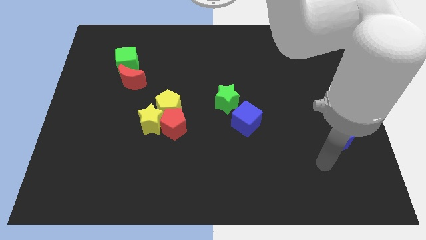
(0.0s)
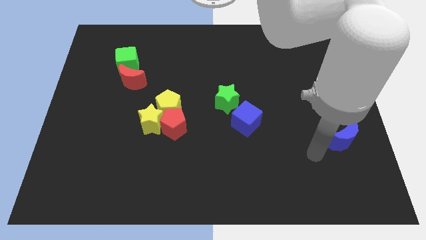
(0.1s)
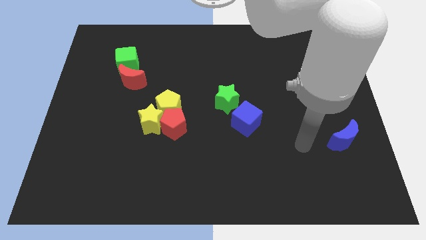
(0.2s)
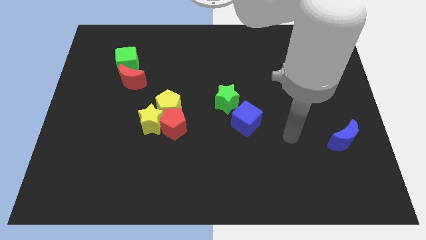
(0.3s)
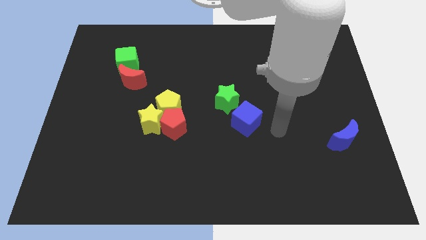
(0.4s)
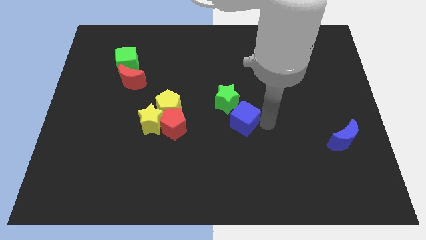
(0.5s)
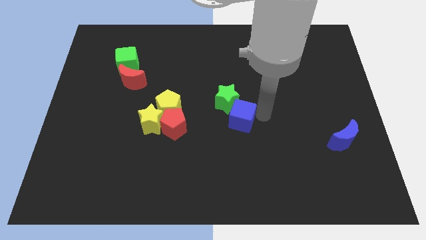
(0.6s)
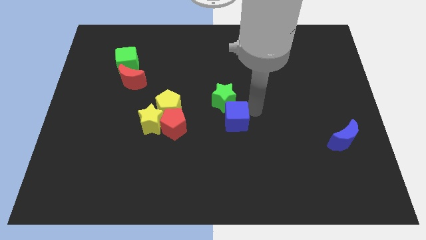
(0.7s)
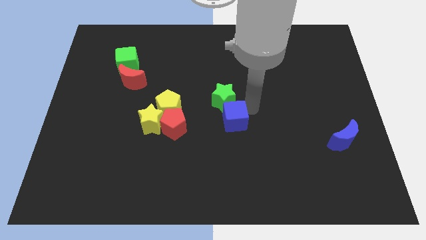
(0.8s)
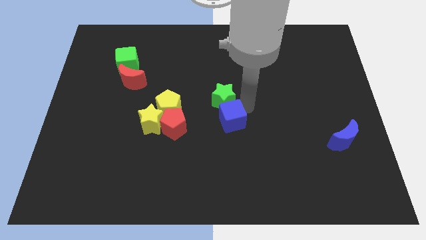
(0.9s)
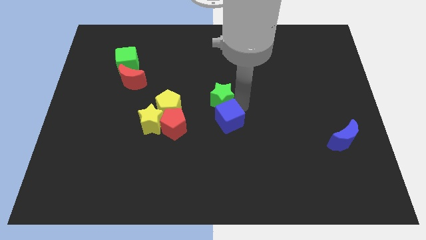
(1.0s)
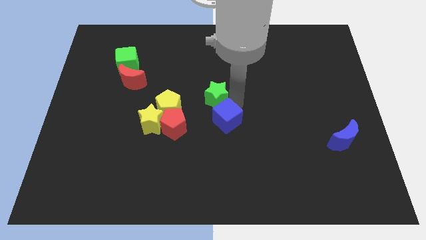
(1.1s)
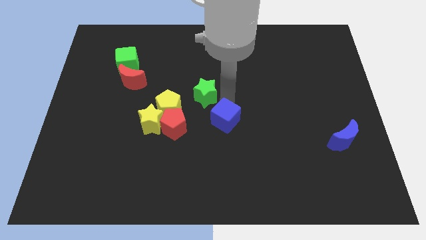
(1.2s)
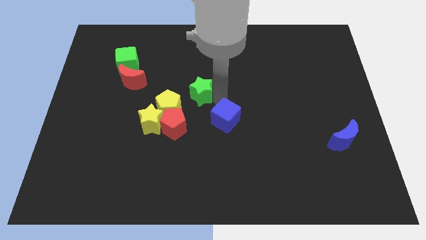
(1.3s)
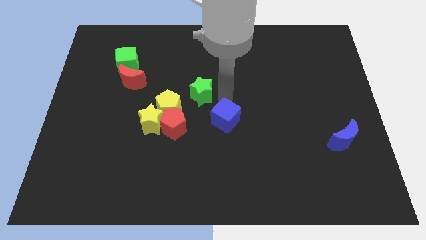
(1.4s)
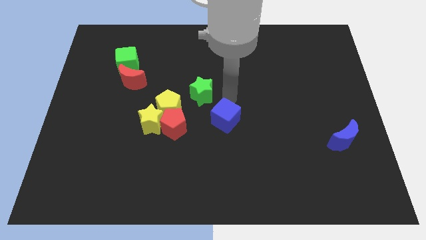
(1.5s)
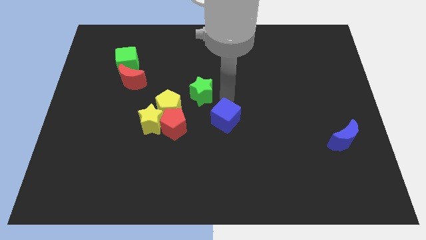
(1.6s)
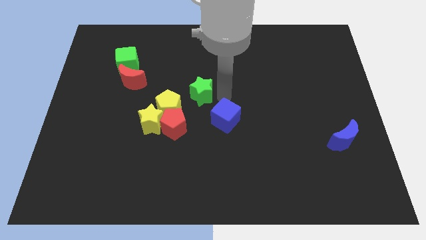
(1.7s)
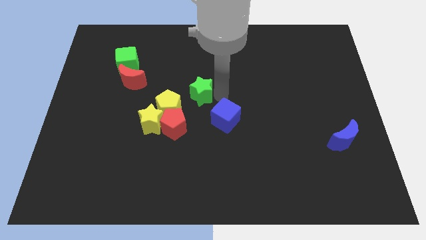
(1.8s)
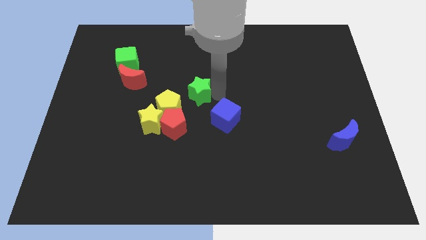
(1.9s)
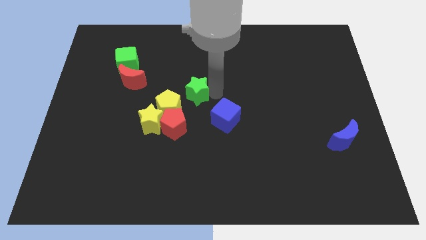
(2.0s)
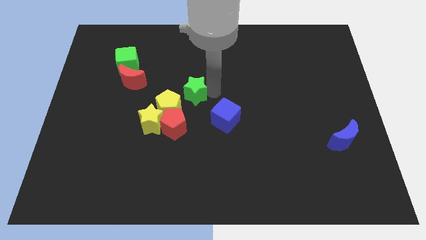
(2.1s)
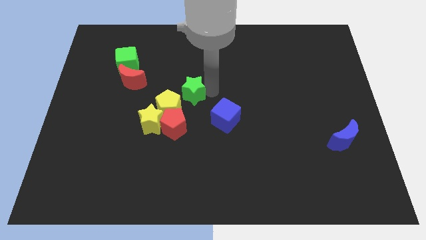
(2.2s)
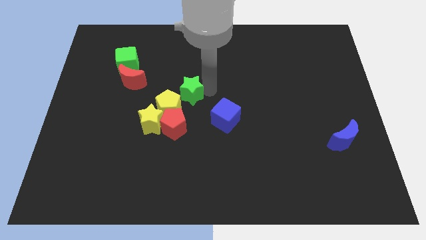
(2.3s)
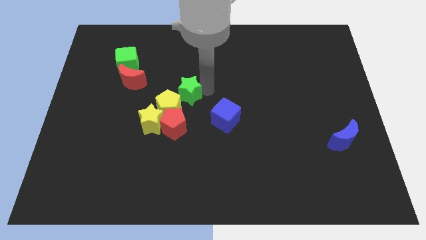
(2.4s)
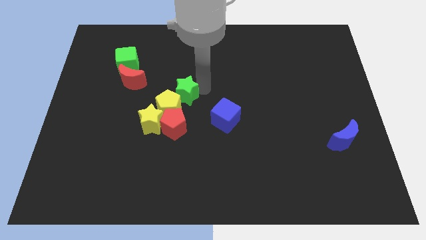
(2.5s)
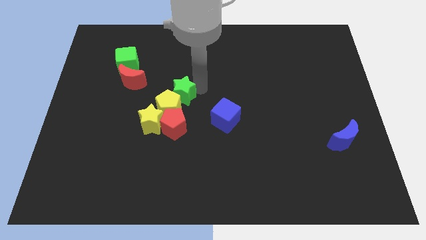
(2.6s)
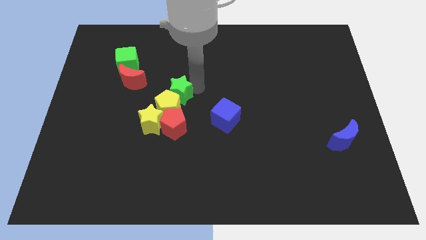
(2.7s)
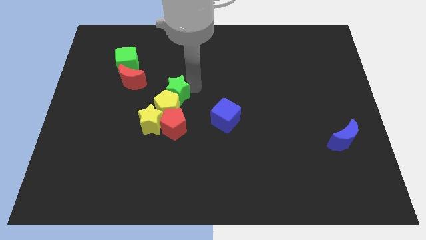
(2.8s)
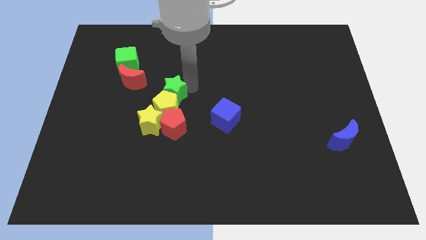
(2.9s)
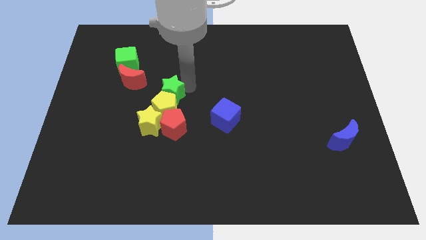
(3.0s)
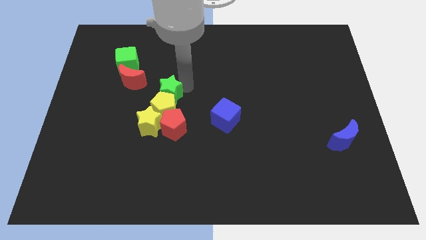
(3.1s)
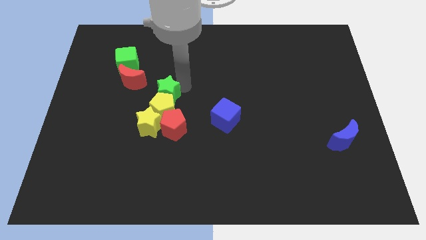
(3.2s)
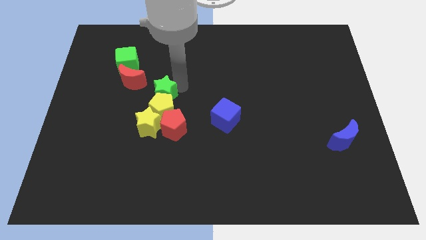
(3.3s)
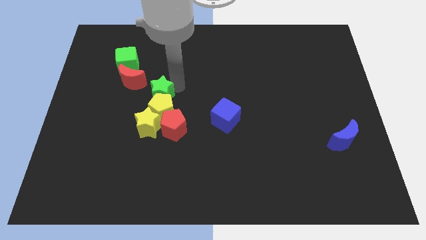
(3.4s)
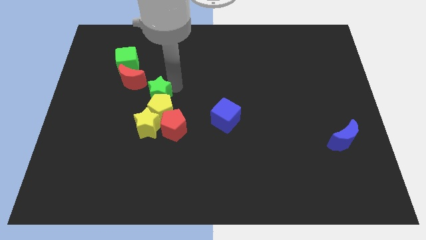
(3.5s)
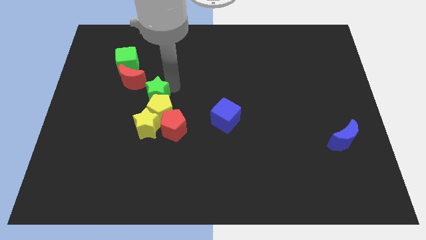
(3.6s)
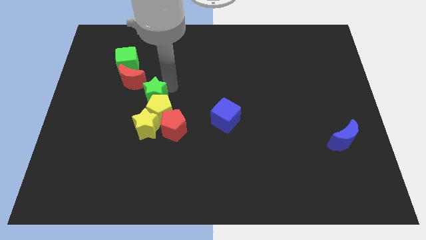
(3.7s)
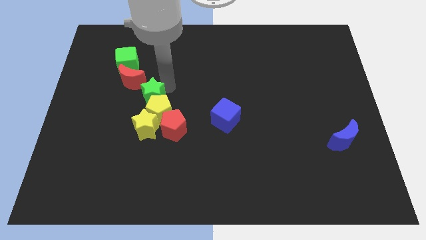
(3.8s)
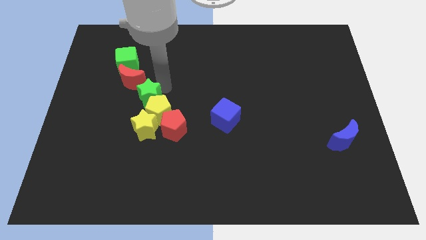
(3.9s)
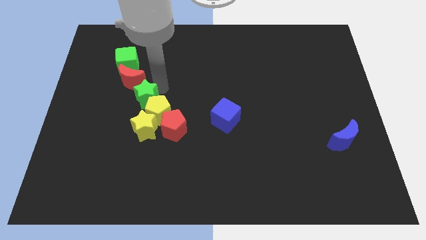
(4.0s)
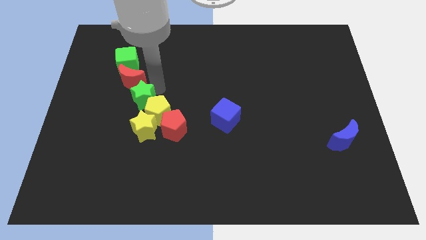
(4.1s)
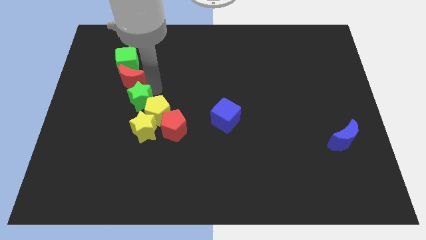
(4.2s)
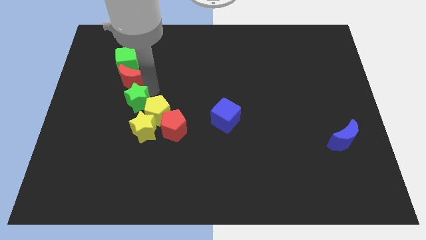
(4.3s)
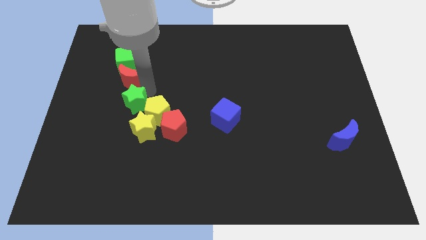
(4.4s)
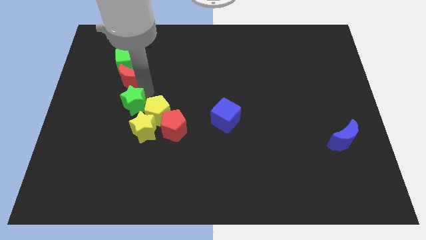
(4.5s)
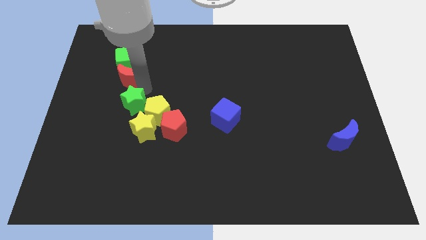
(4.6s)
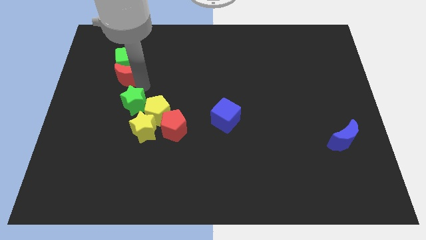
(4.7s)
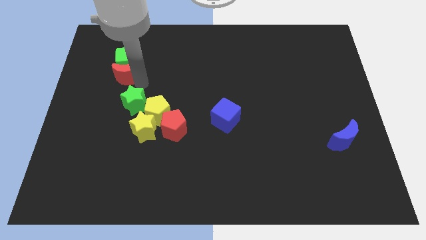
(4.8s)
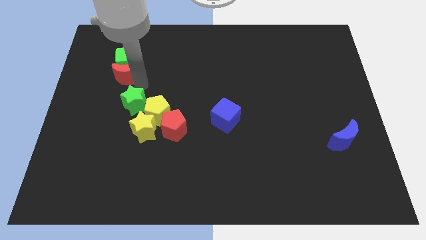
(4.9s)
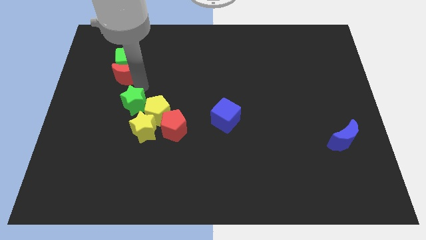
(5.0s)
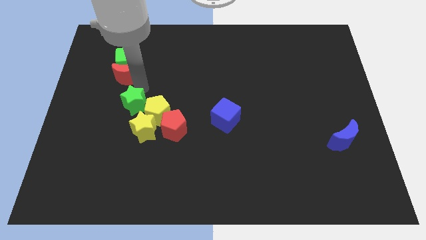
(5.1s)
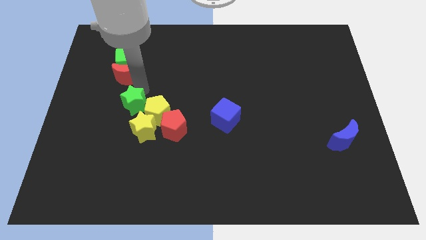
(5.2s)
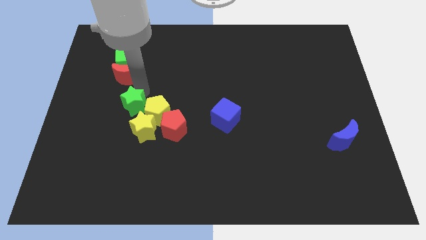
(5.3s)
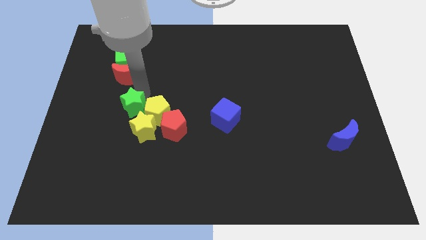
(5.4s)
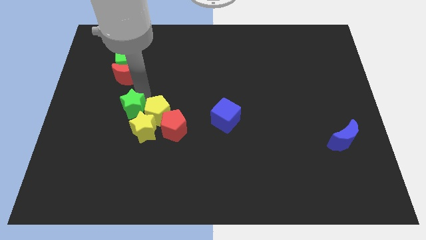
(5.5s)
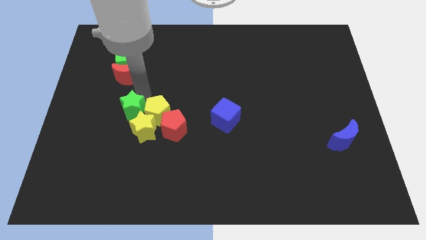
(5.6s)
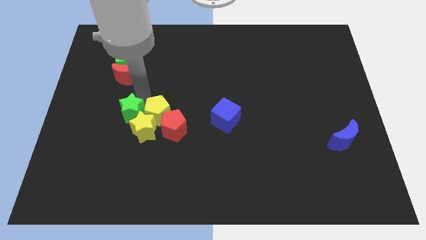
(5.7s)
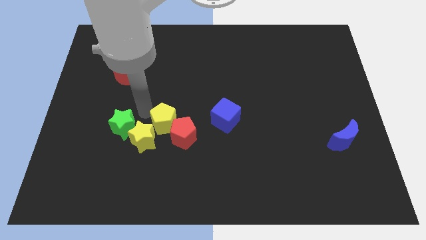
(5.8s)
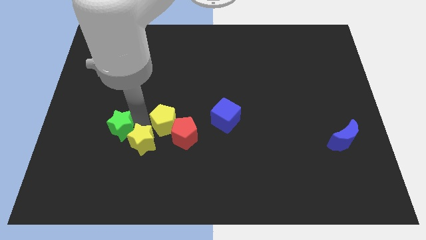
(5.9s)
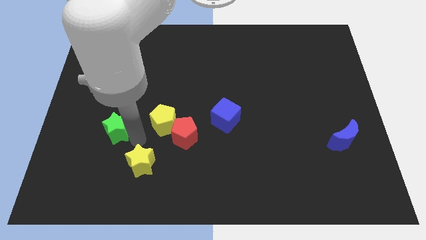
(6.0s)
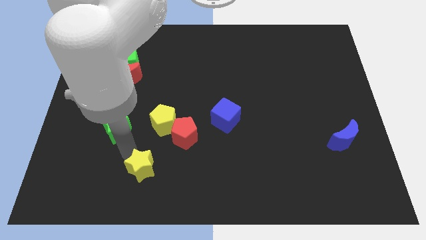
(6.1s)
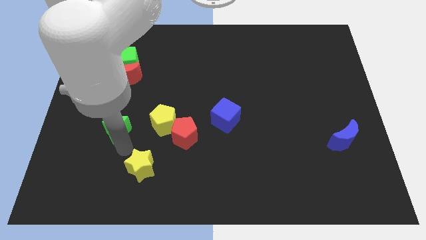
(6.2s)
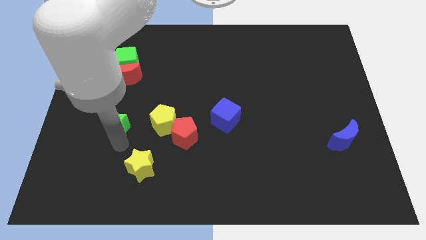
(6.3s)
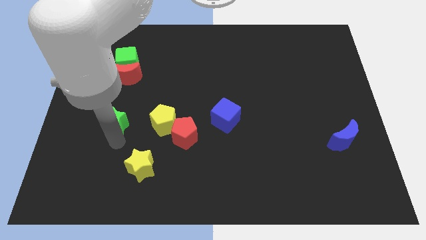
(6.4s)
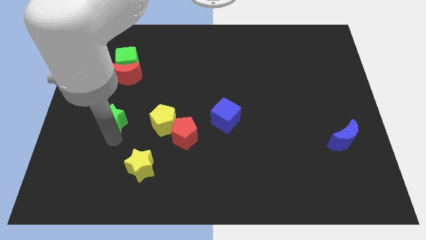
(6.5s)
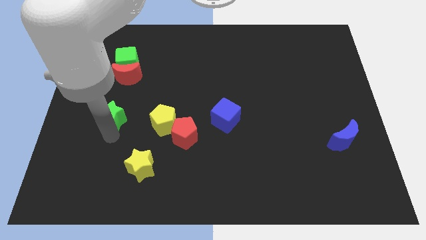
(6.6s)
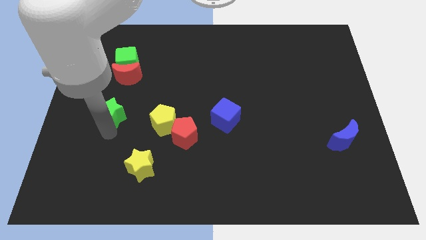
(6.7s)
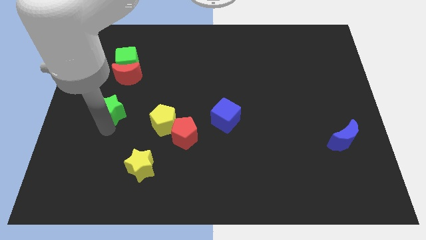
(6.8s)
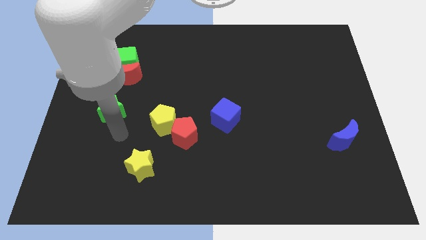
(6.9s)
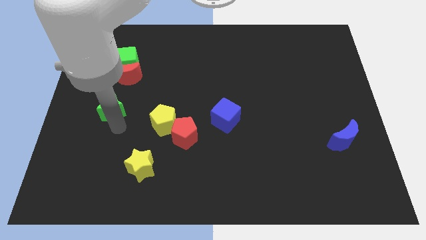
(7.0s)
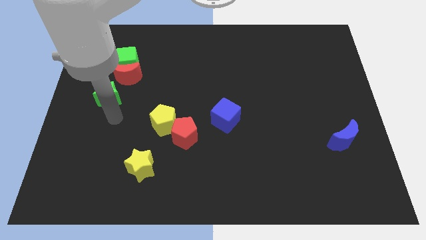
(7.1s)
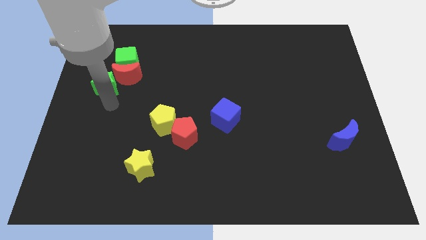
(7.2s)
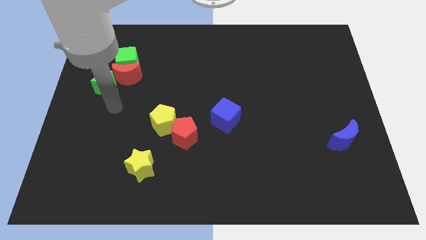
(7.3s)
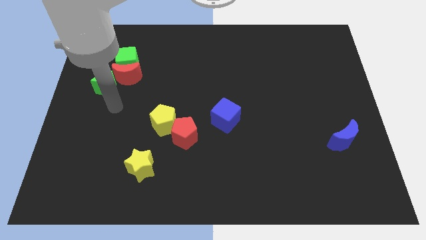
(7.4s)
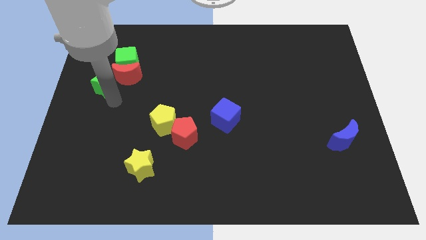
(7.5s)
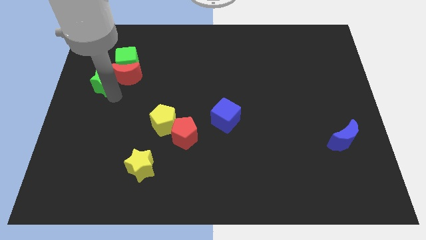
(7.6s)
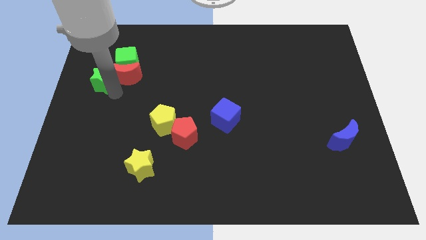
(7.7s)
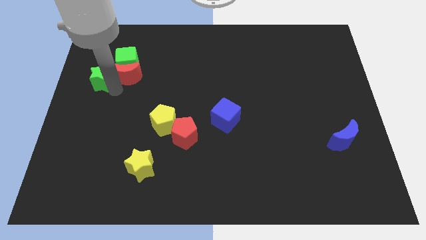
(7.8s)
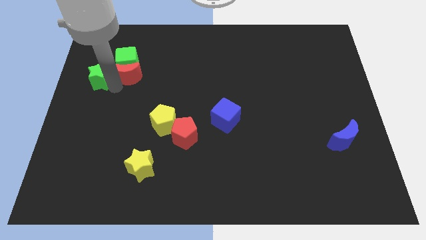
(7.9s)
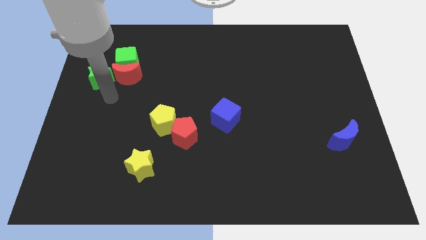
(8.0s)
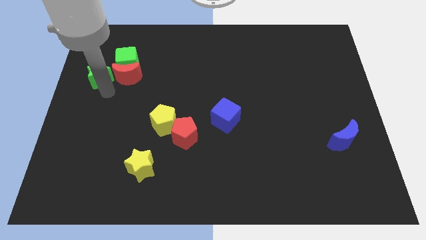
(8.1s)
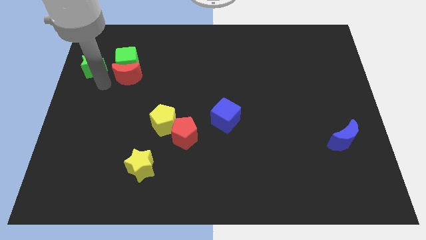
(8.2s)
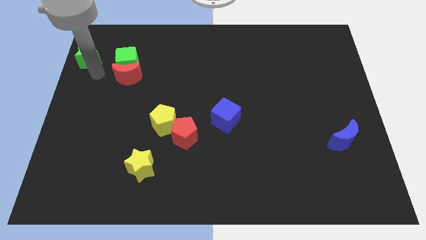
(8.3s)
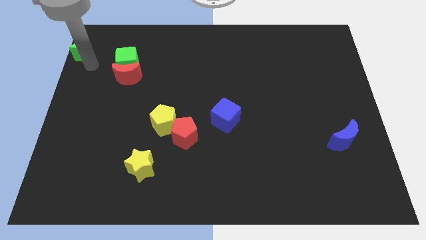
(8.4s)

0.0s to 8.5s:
push the green star to the top left
